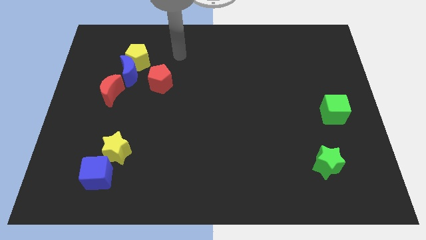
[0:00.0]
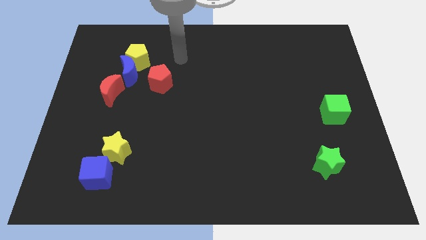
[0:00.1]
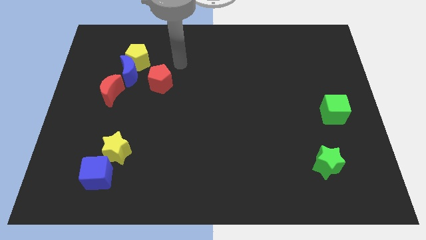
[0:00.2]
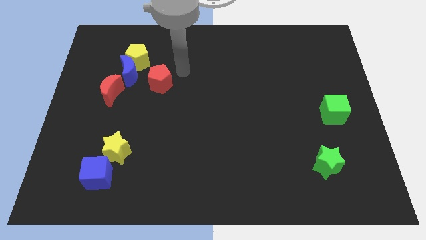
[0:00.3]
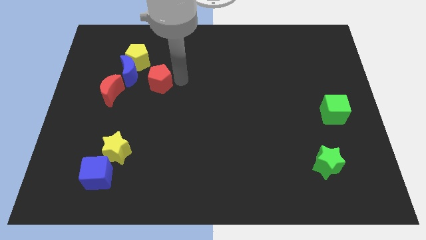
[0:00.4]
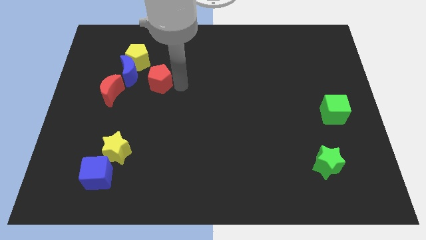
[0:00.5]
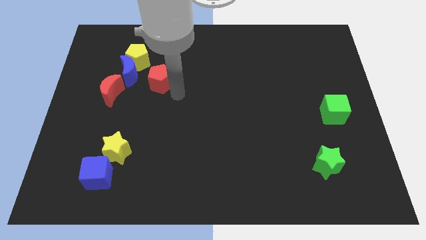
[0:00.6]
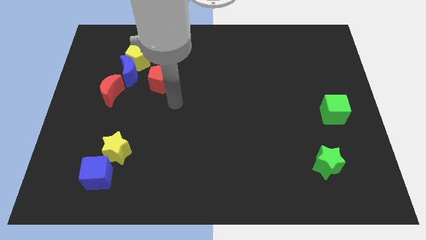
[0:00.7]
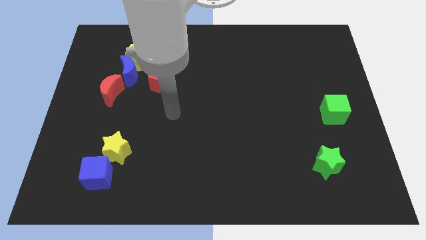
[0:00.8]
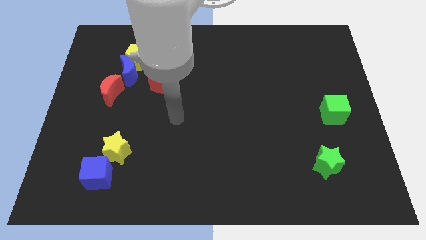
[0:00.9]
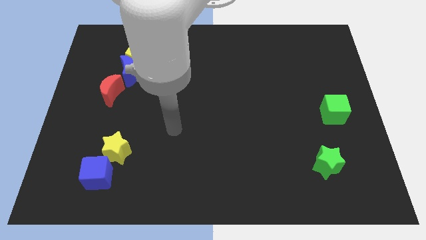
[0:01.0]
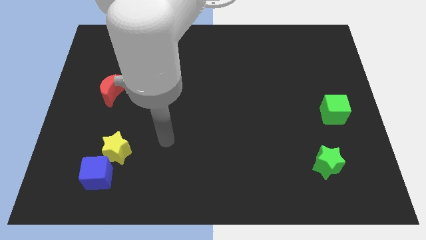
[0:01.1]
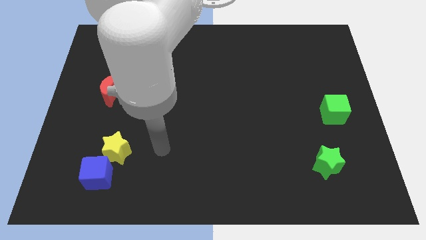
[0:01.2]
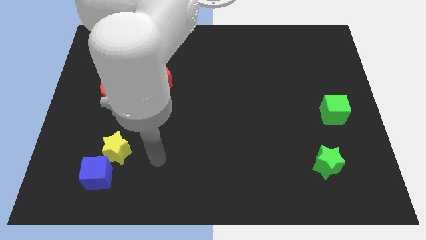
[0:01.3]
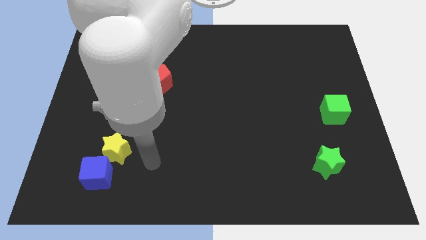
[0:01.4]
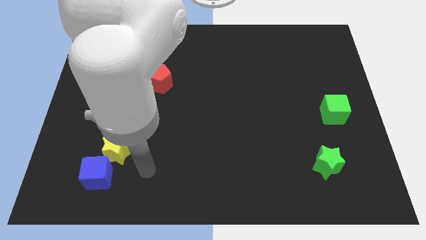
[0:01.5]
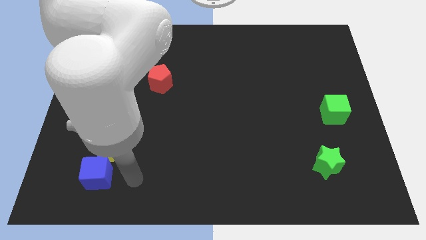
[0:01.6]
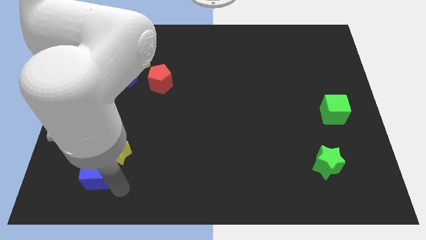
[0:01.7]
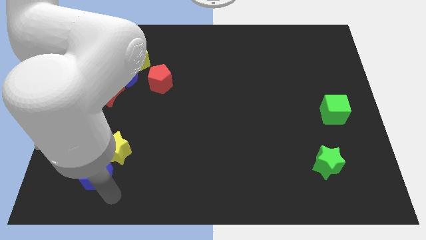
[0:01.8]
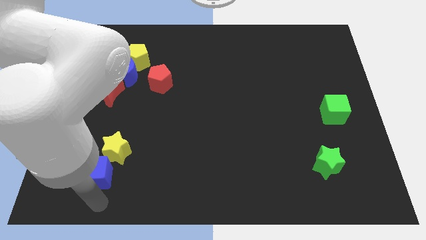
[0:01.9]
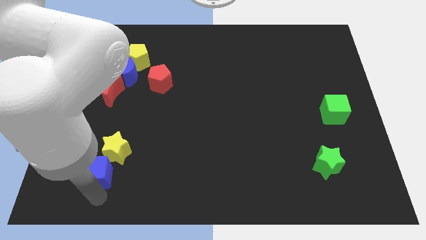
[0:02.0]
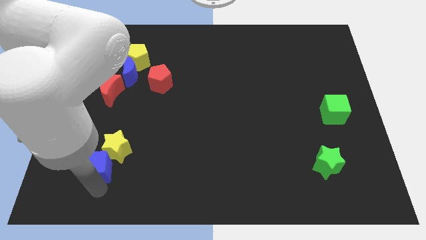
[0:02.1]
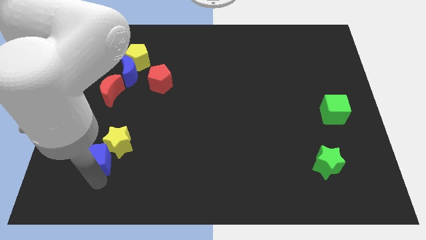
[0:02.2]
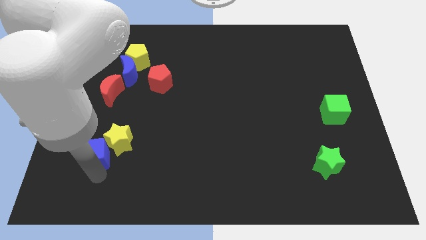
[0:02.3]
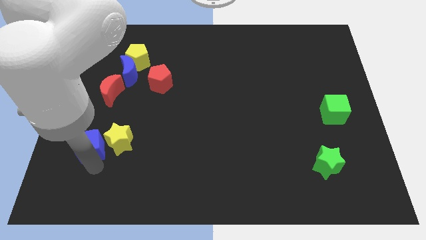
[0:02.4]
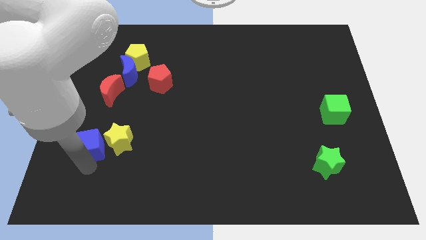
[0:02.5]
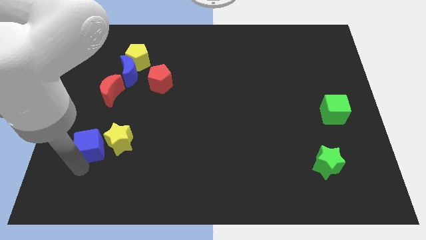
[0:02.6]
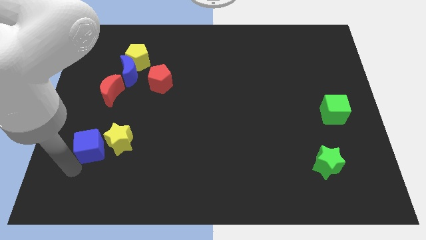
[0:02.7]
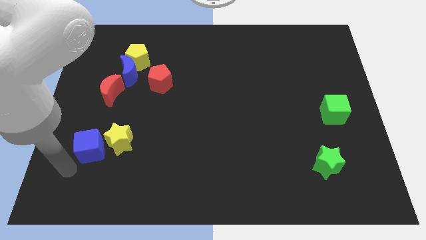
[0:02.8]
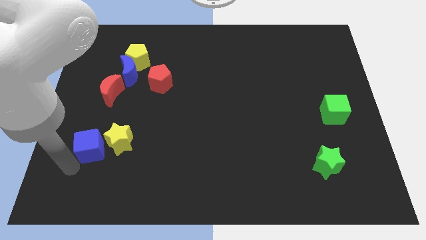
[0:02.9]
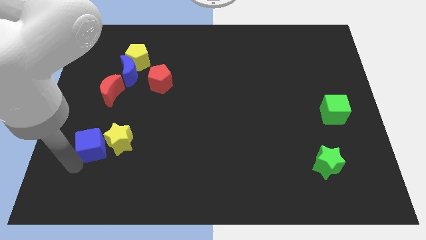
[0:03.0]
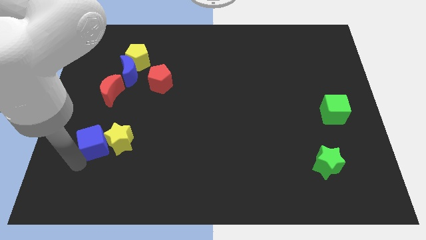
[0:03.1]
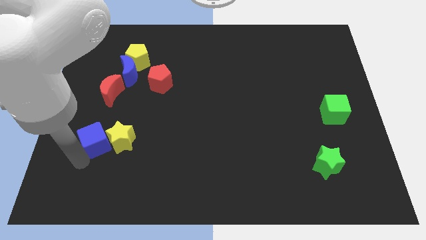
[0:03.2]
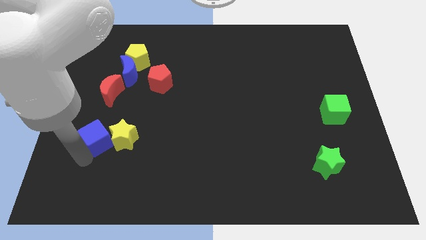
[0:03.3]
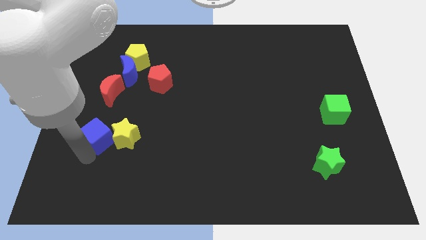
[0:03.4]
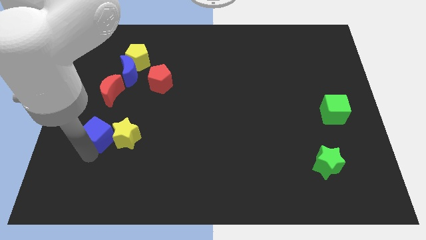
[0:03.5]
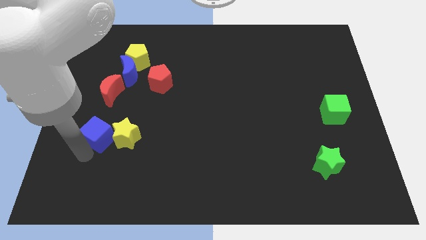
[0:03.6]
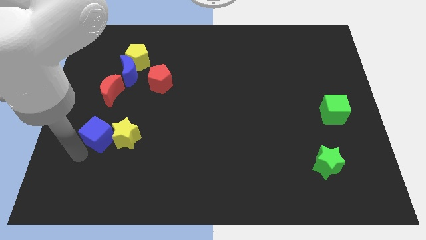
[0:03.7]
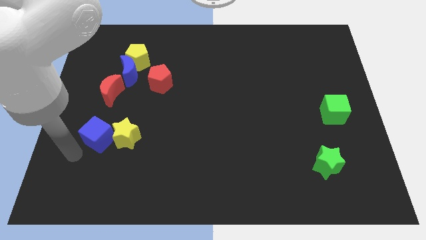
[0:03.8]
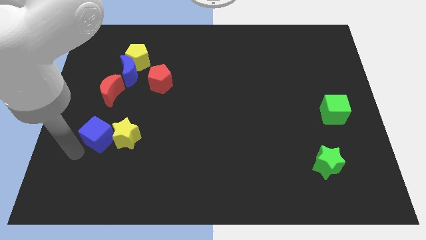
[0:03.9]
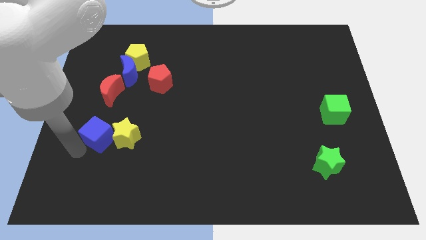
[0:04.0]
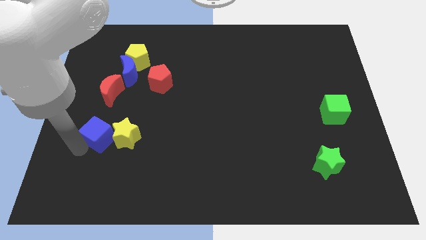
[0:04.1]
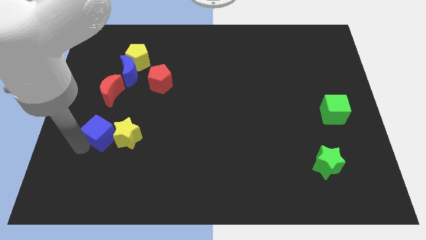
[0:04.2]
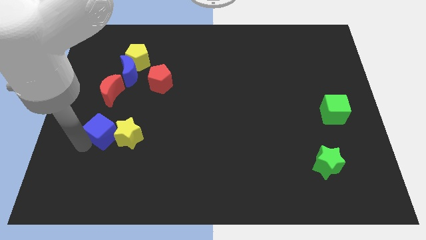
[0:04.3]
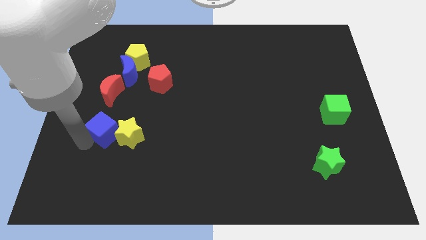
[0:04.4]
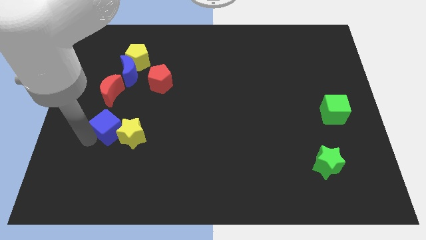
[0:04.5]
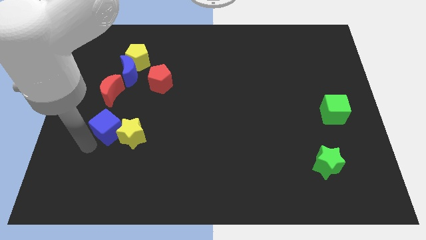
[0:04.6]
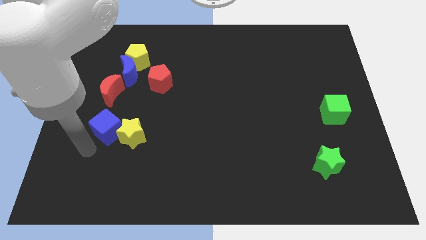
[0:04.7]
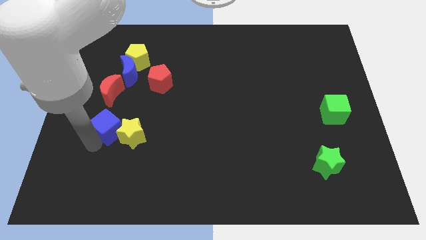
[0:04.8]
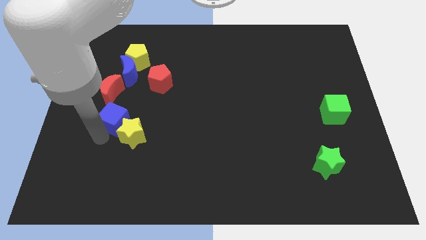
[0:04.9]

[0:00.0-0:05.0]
move the blue cube above the yellow star

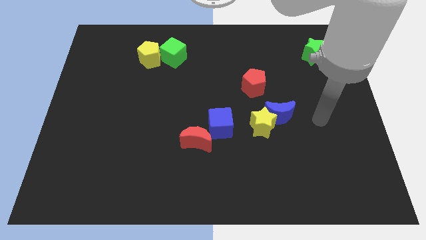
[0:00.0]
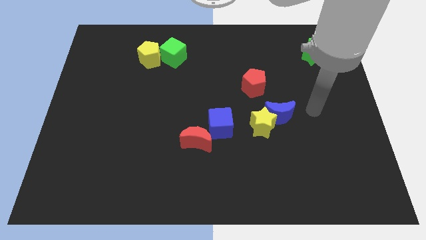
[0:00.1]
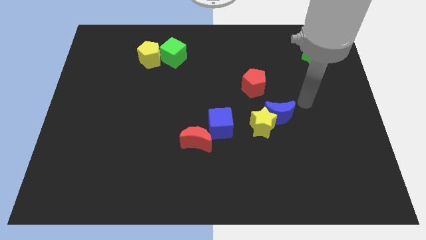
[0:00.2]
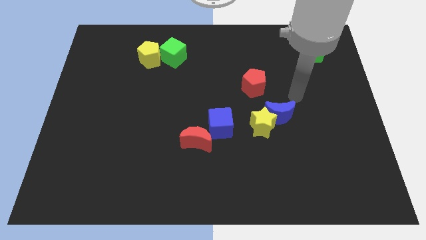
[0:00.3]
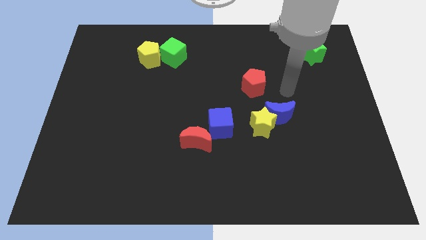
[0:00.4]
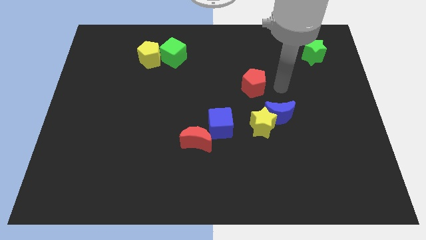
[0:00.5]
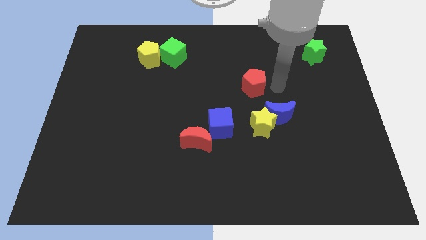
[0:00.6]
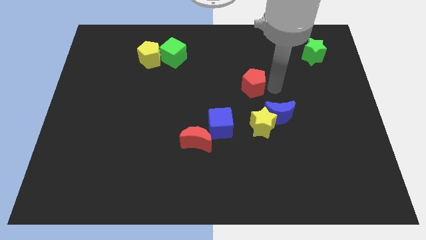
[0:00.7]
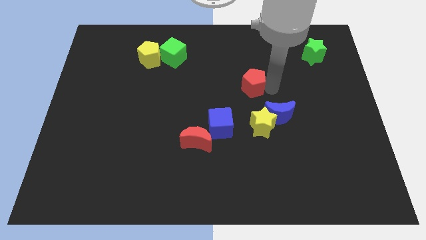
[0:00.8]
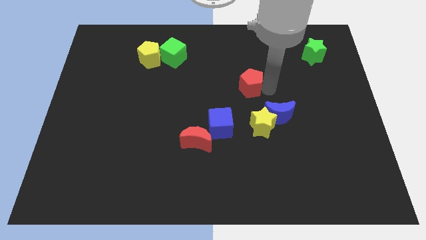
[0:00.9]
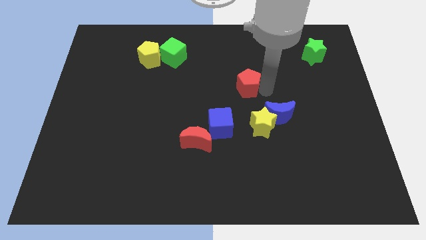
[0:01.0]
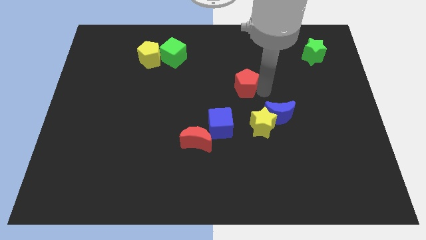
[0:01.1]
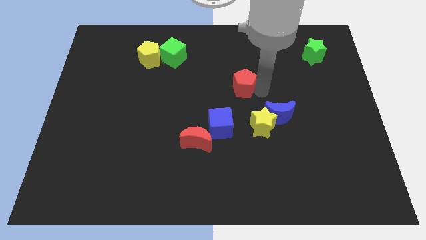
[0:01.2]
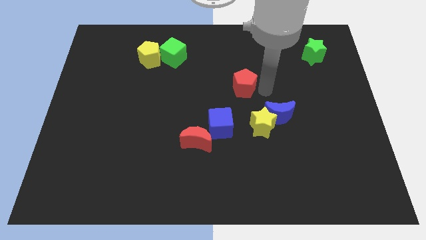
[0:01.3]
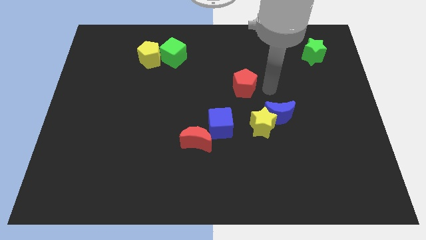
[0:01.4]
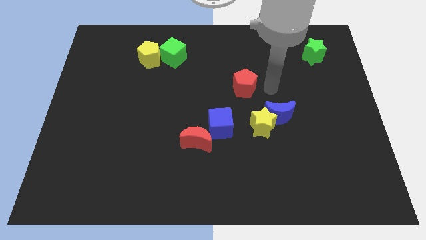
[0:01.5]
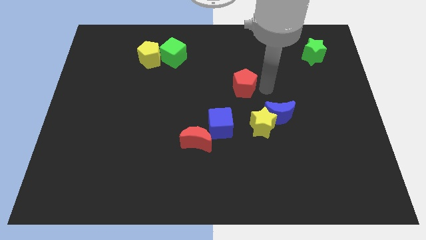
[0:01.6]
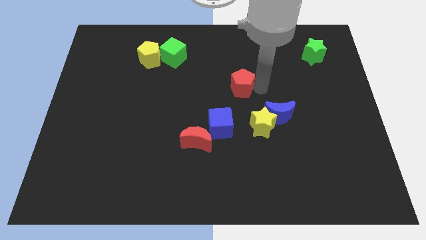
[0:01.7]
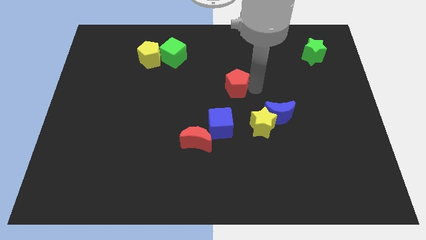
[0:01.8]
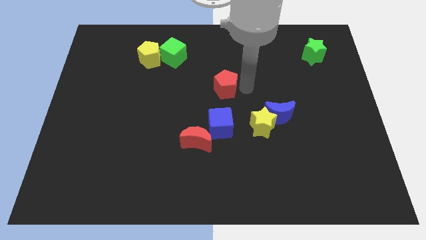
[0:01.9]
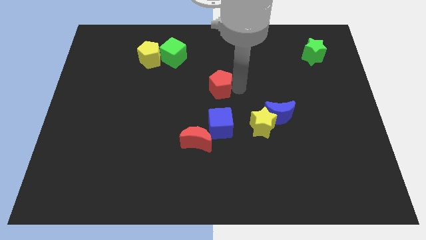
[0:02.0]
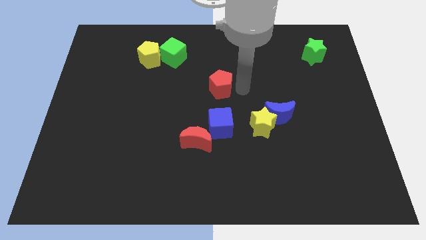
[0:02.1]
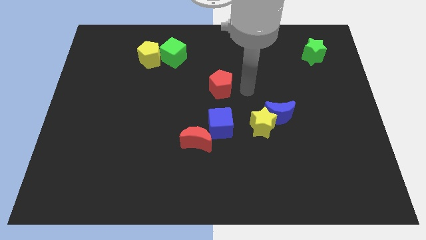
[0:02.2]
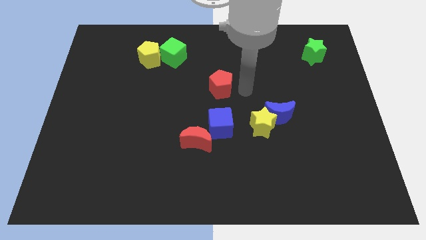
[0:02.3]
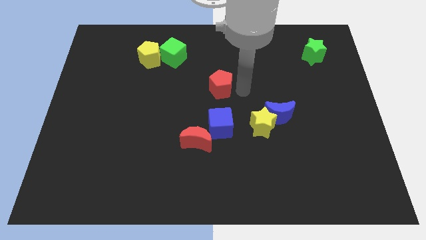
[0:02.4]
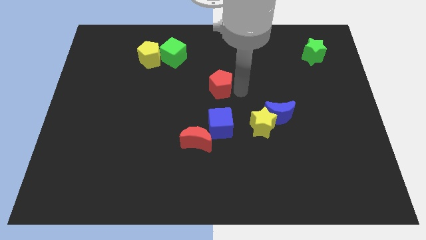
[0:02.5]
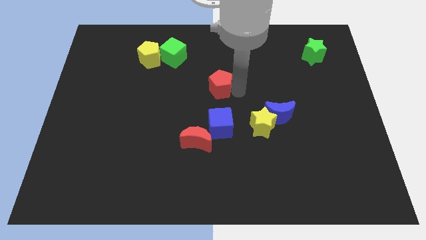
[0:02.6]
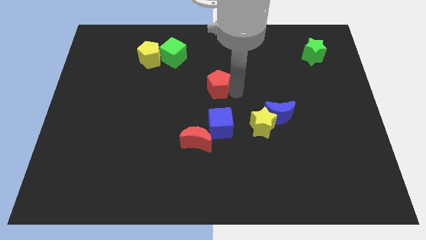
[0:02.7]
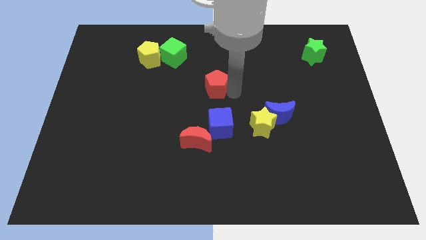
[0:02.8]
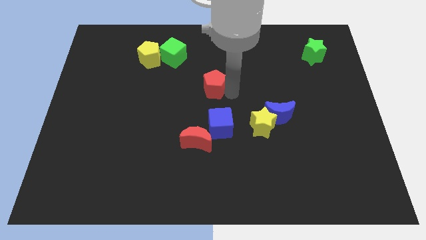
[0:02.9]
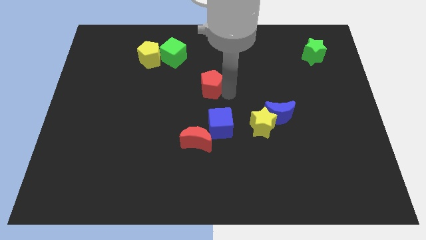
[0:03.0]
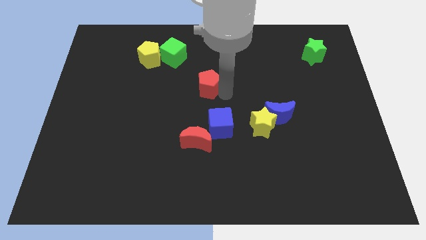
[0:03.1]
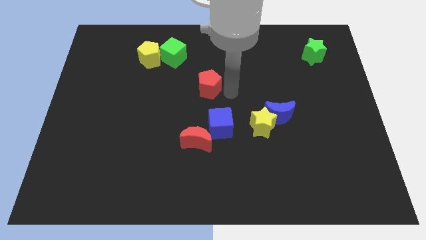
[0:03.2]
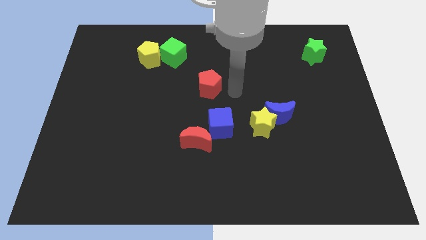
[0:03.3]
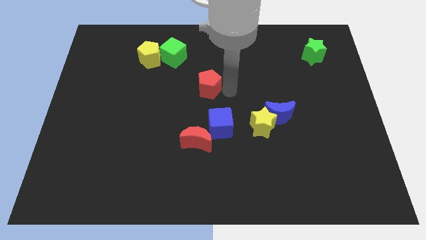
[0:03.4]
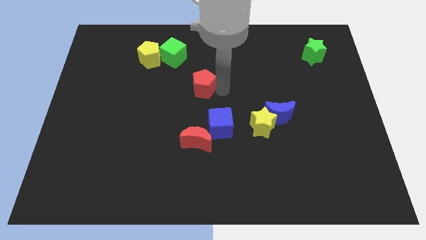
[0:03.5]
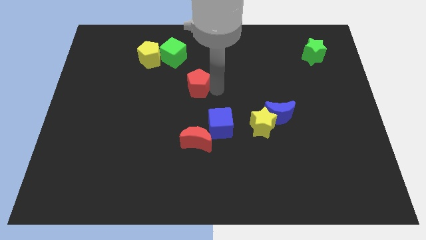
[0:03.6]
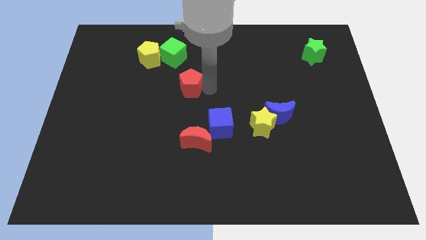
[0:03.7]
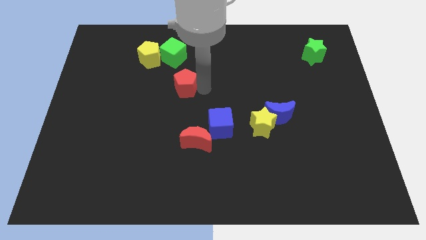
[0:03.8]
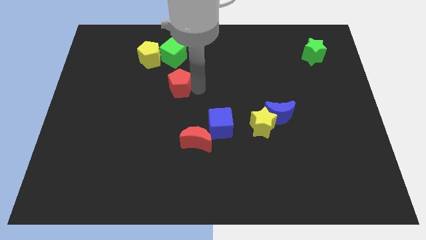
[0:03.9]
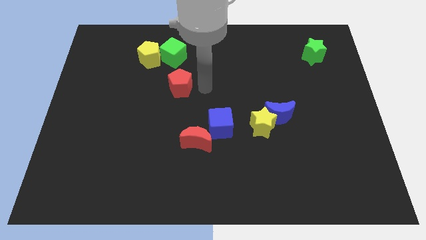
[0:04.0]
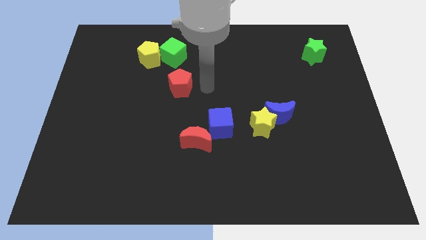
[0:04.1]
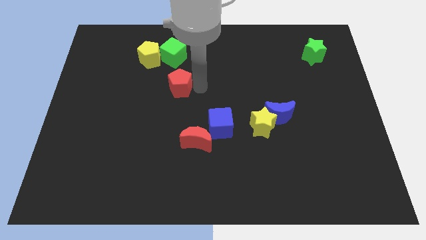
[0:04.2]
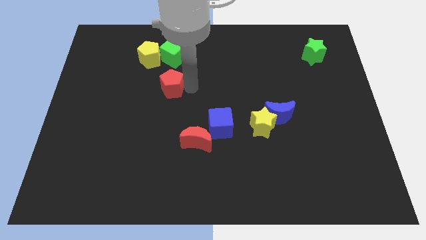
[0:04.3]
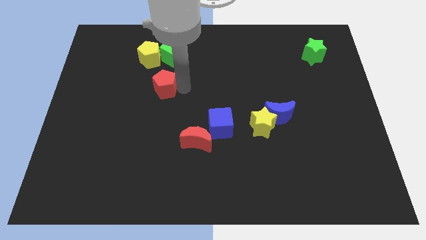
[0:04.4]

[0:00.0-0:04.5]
put the red pentagon below the yellow pentagon
